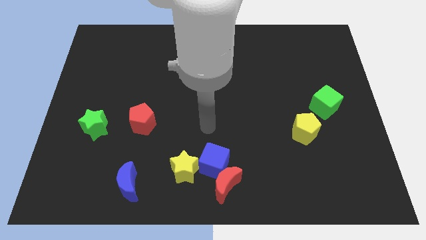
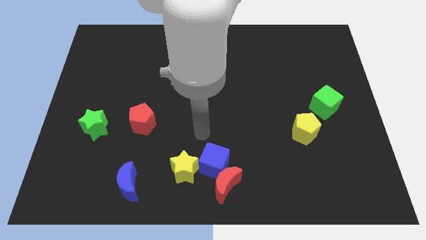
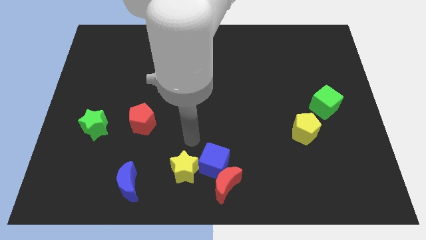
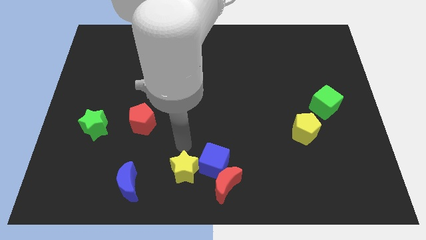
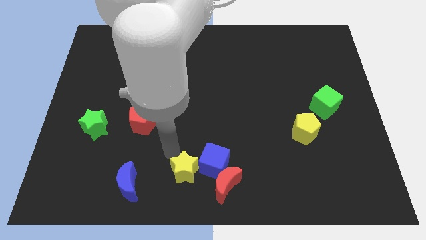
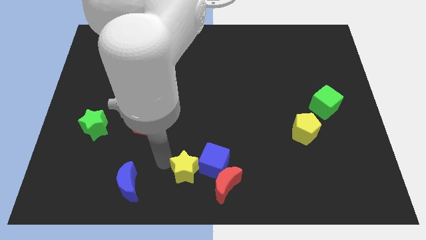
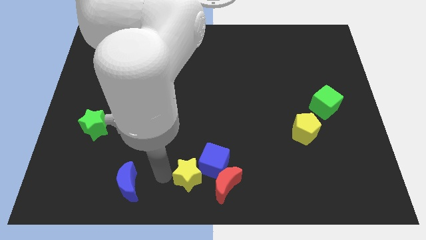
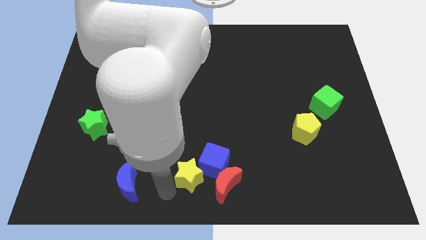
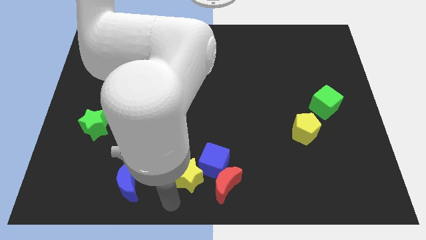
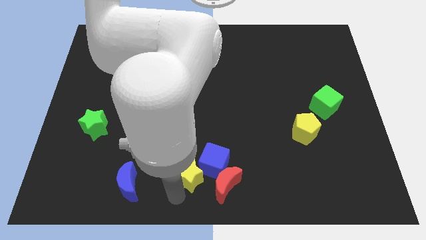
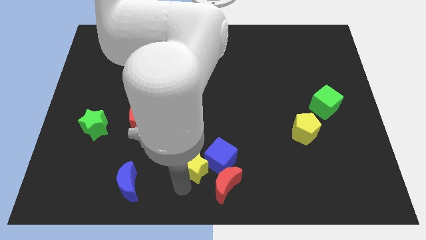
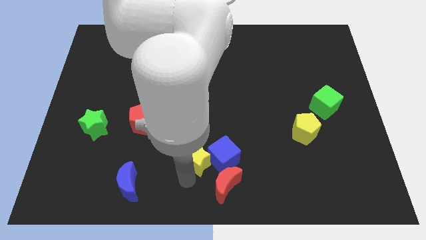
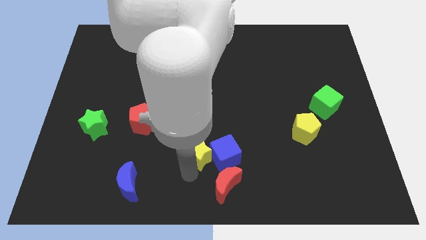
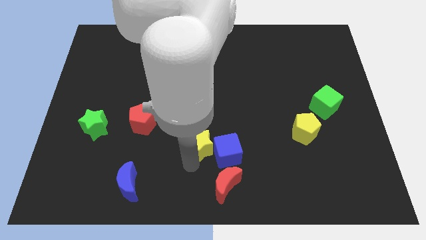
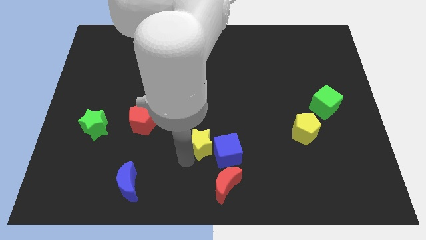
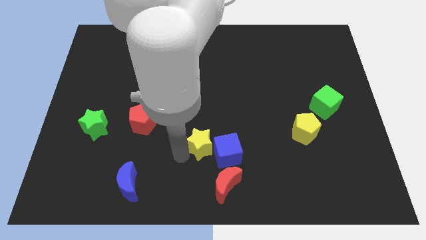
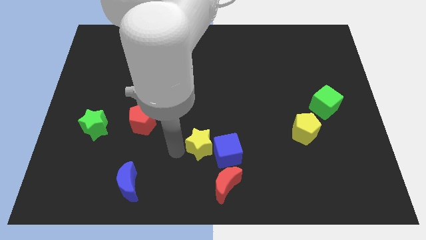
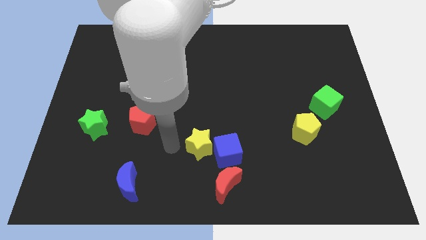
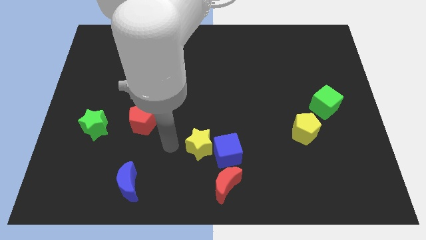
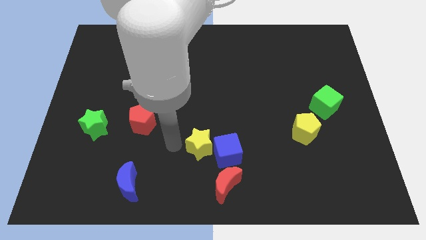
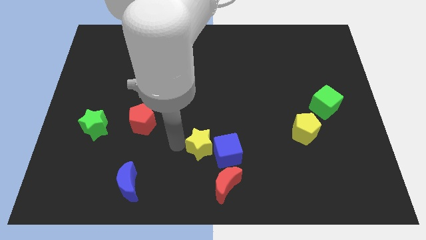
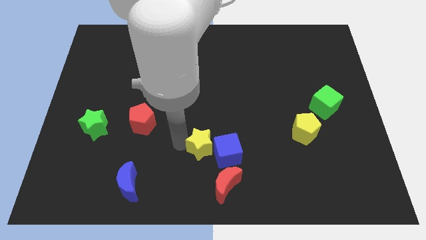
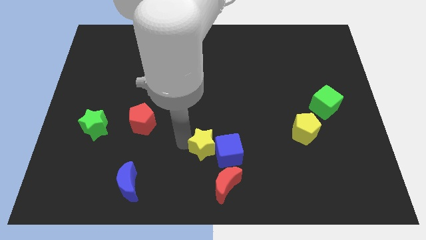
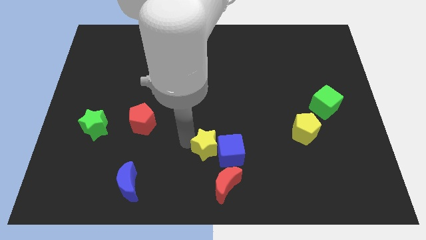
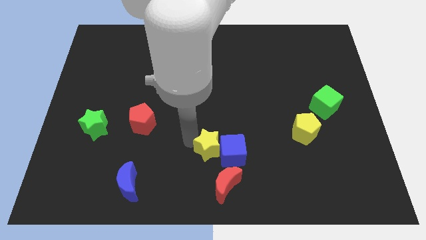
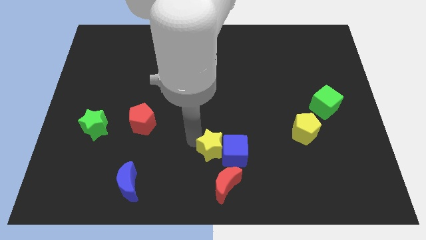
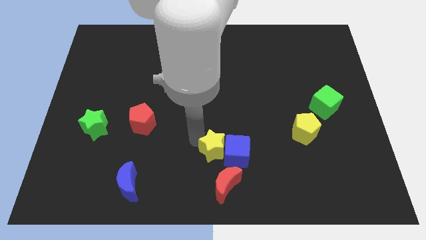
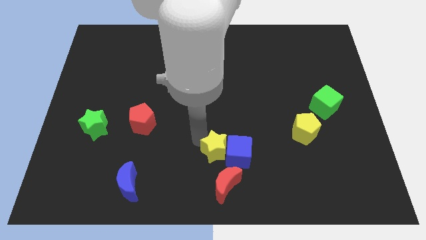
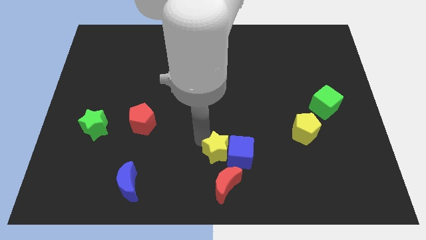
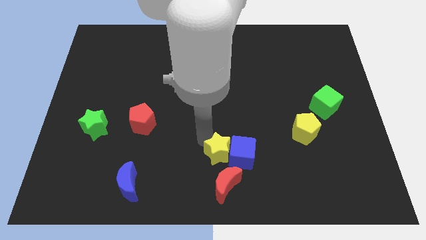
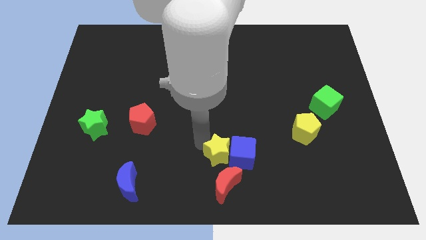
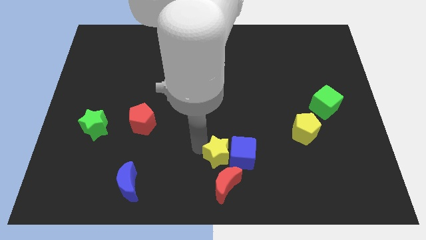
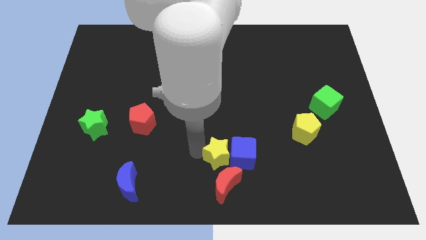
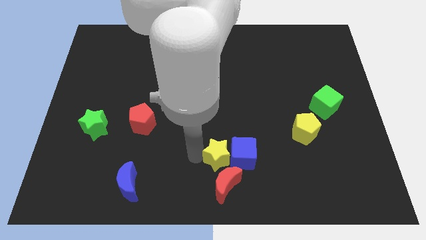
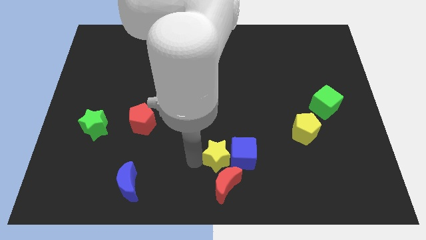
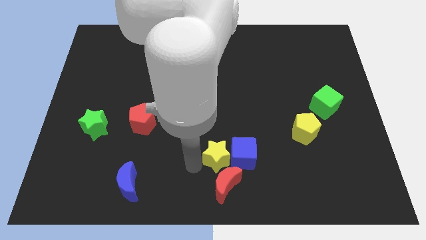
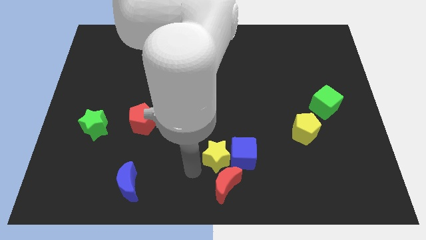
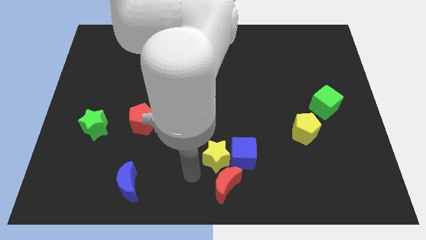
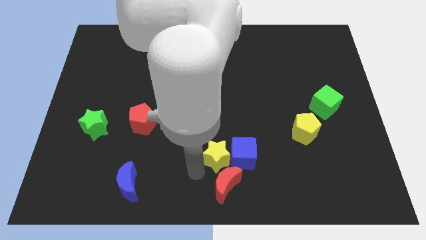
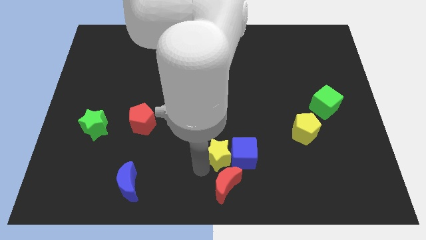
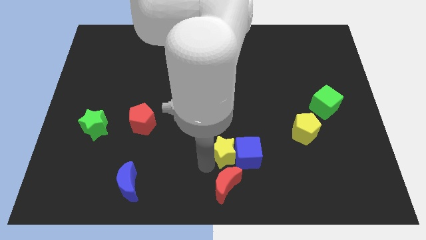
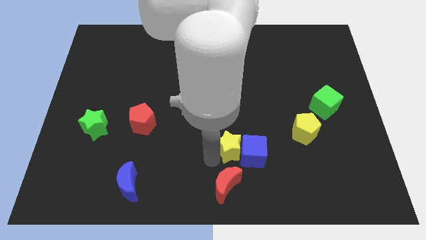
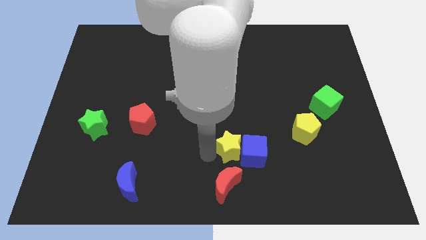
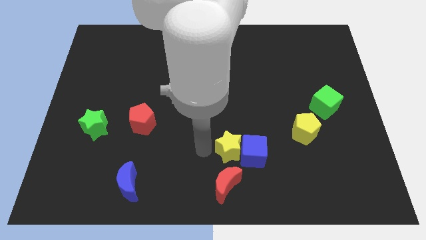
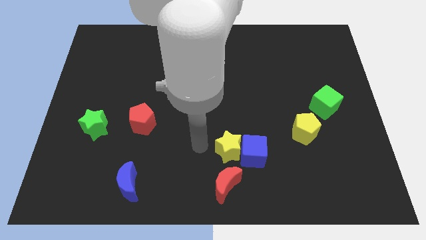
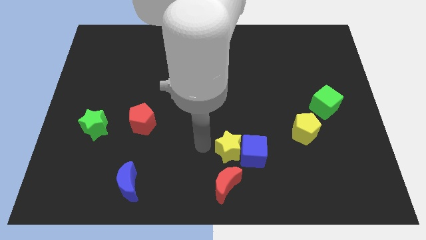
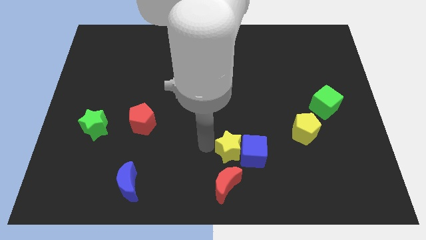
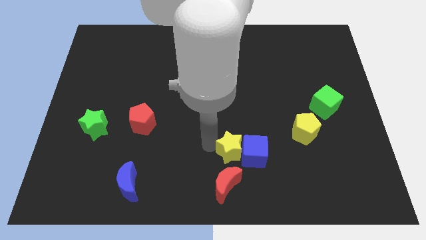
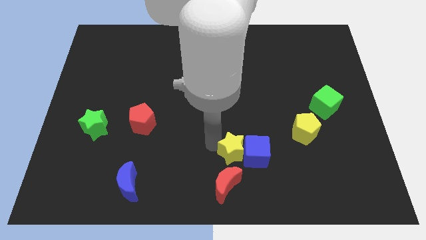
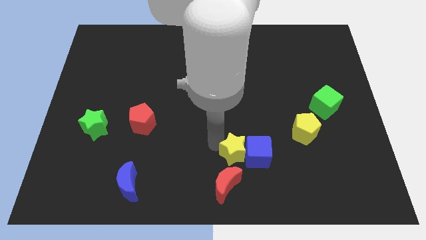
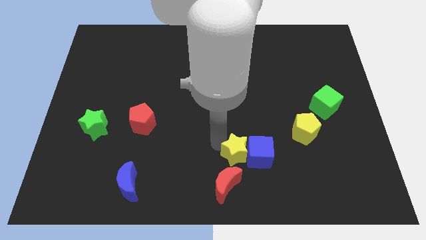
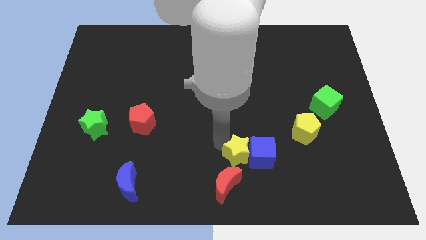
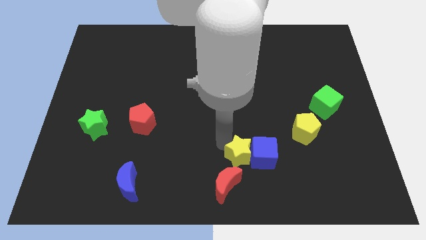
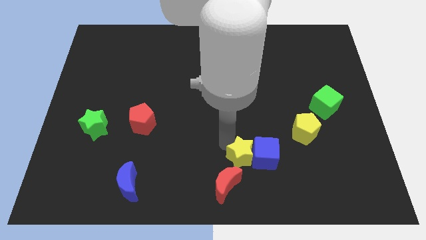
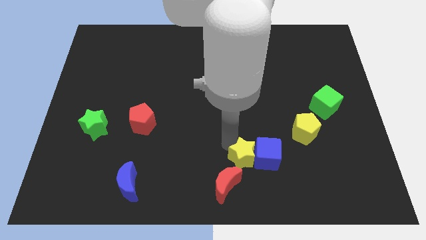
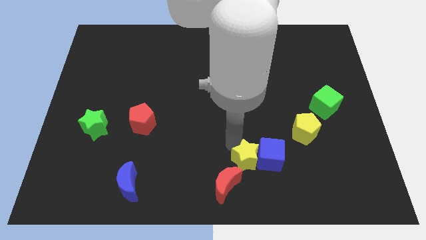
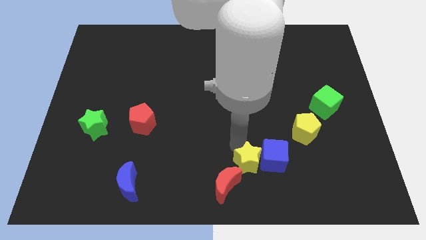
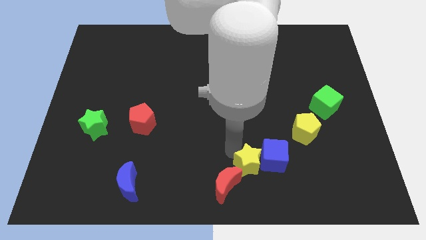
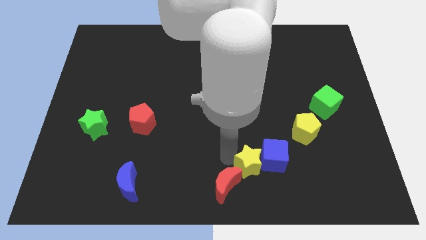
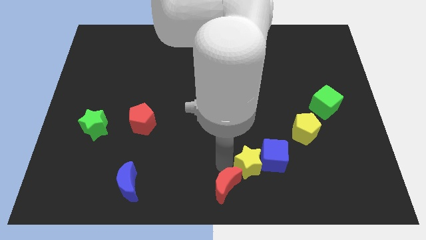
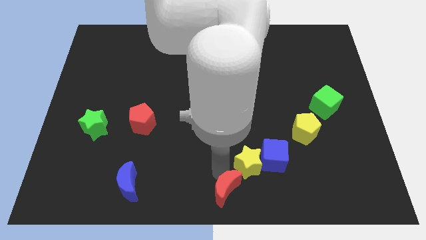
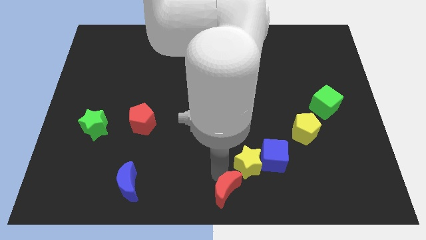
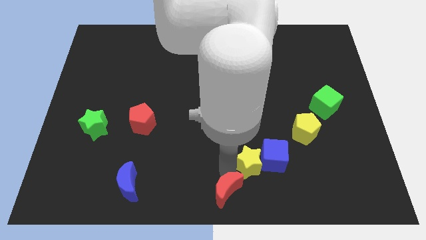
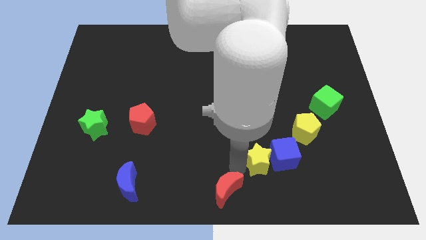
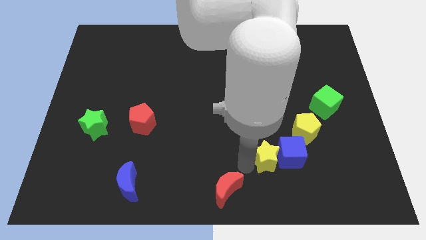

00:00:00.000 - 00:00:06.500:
move the yellow star diagonally down and to the left of the yellow pentagon

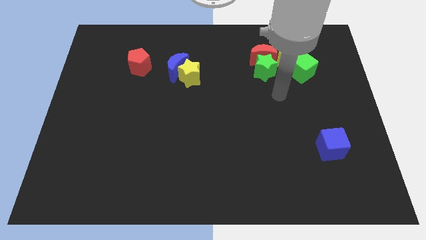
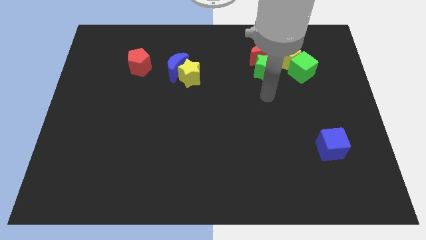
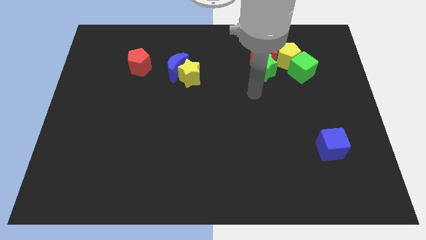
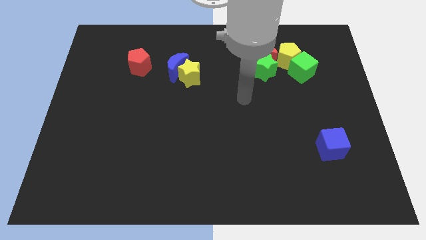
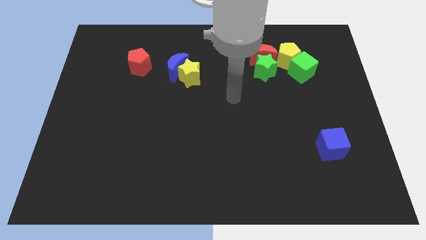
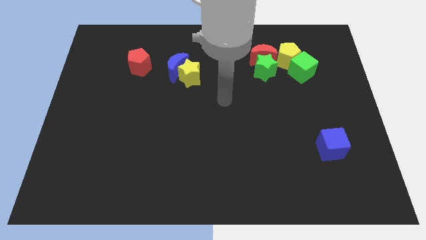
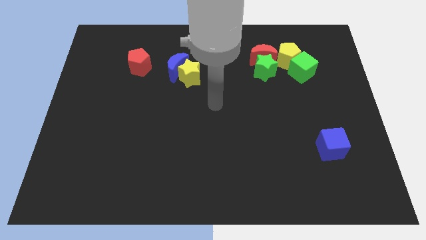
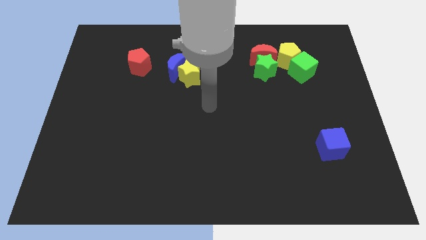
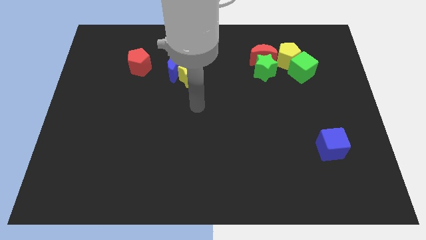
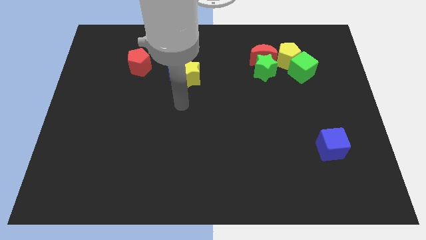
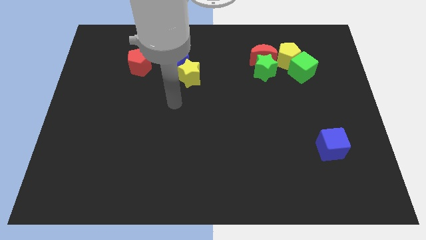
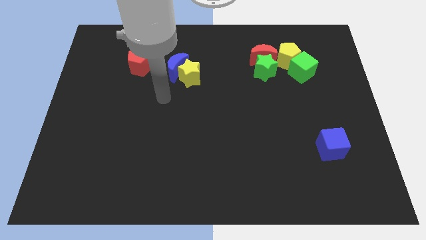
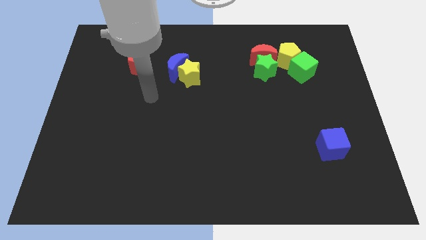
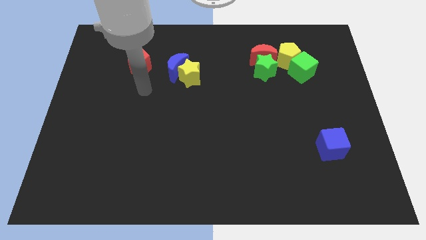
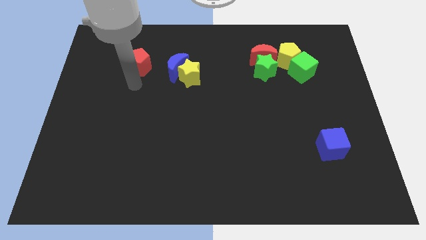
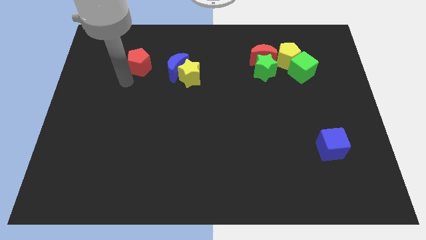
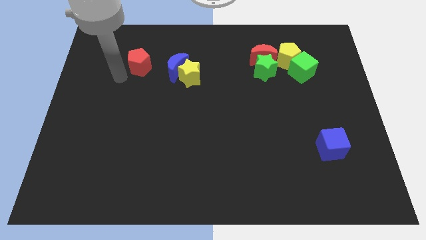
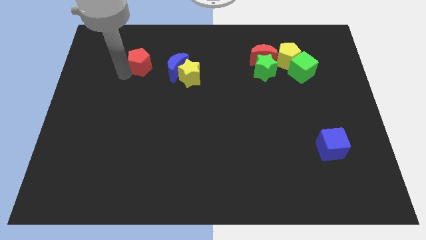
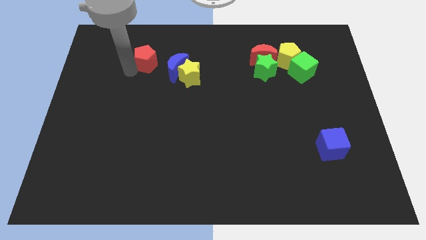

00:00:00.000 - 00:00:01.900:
put the red pentagon diagonally up and to the left of the blue moon
